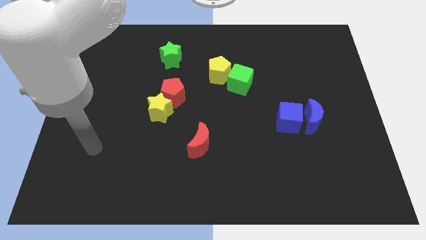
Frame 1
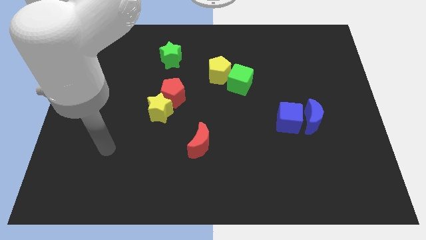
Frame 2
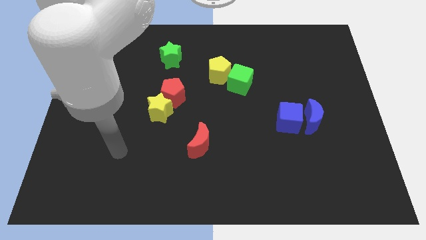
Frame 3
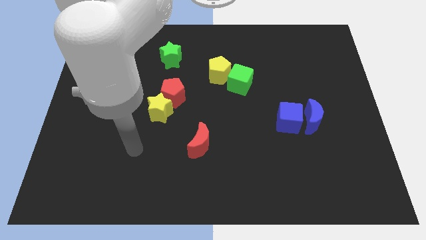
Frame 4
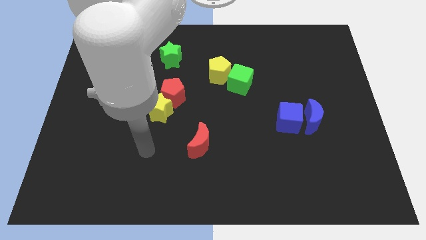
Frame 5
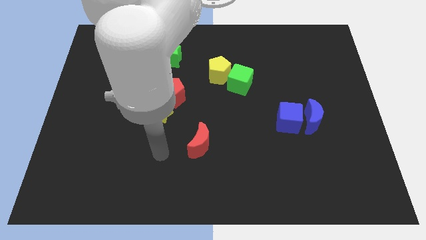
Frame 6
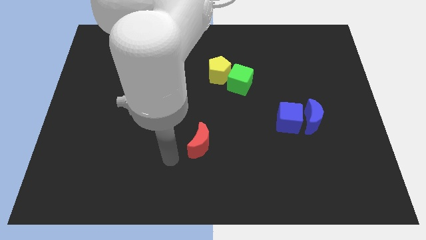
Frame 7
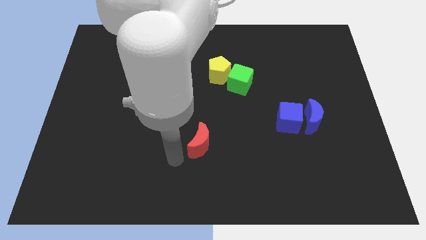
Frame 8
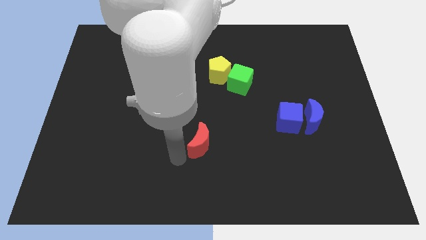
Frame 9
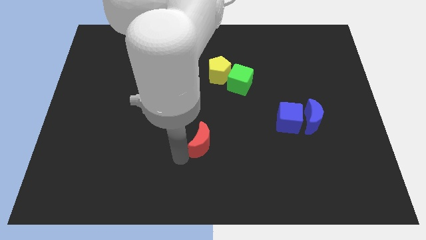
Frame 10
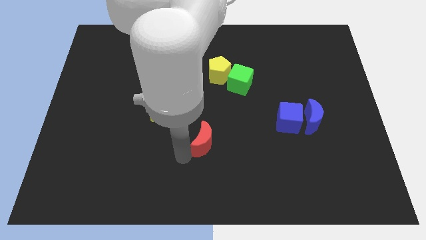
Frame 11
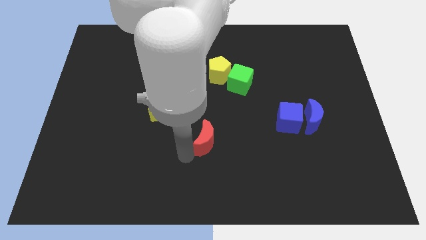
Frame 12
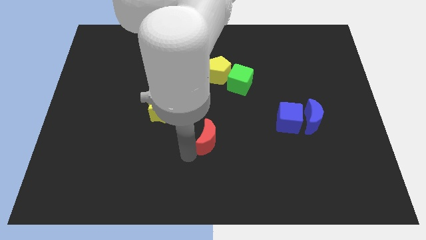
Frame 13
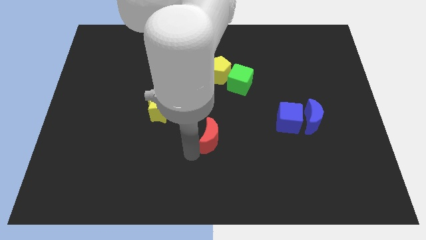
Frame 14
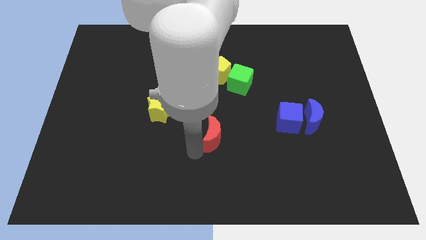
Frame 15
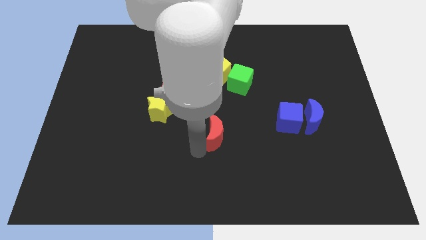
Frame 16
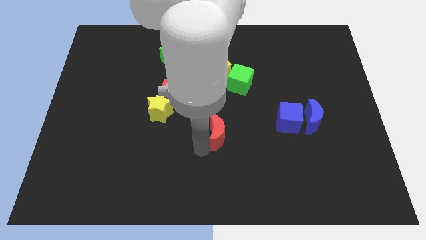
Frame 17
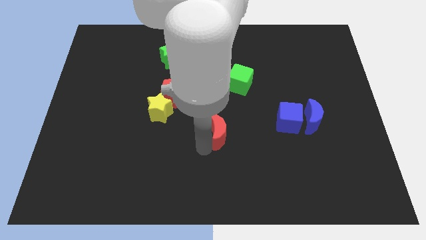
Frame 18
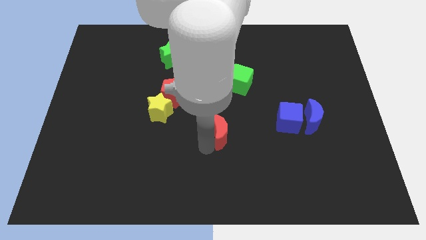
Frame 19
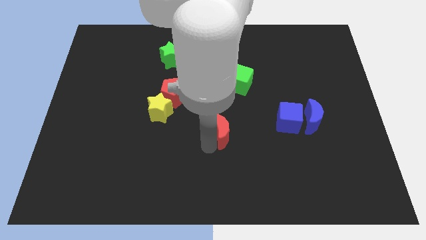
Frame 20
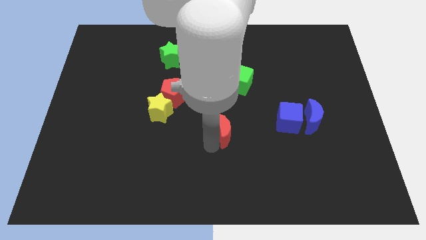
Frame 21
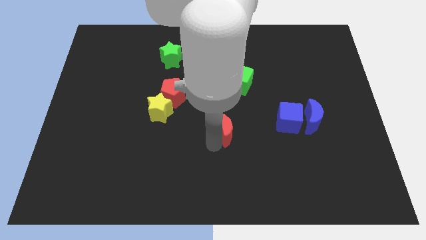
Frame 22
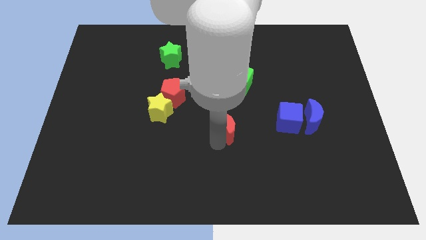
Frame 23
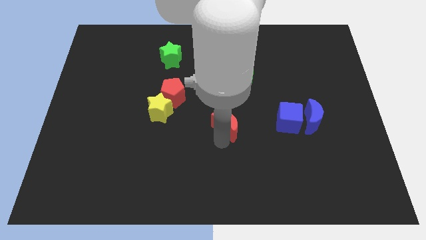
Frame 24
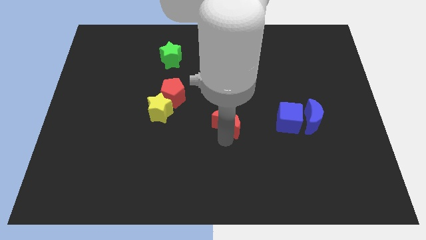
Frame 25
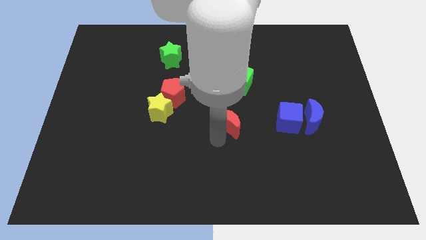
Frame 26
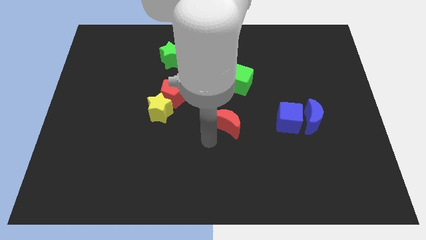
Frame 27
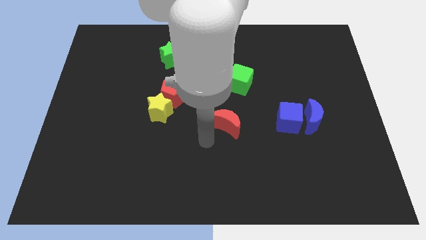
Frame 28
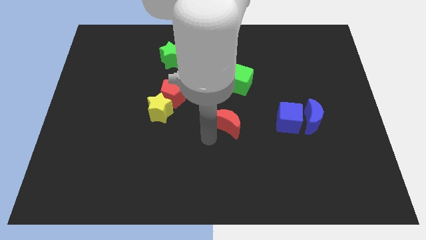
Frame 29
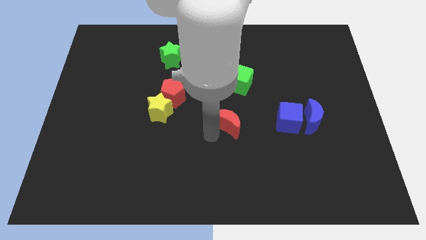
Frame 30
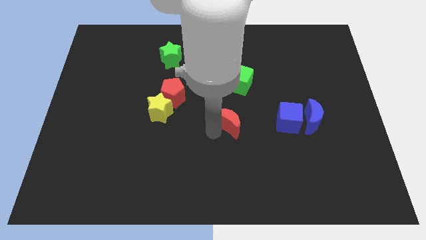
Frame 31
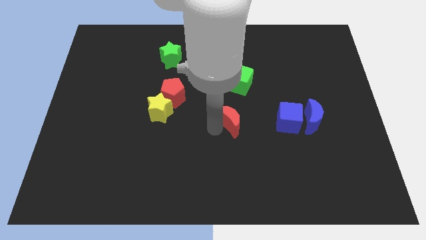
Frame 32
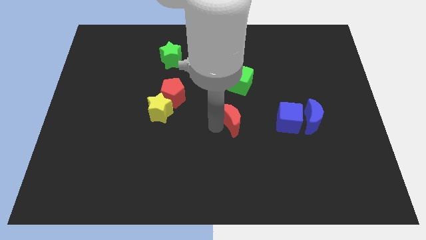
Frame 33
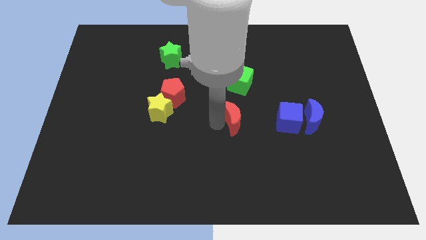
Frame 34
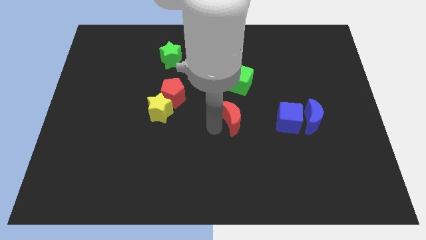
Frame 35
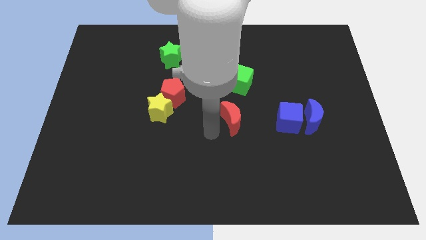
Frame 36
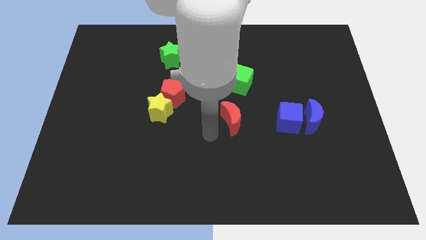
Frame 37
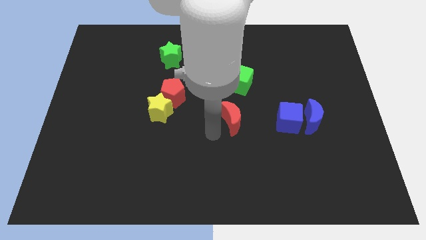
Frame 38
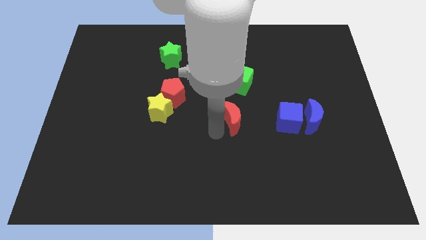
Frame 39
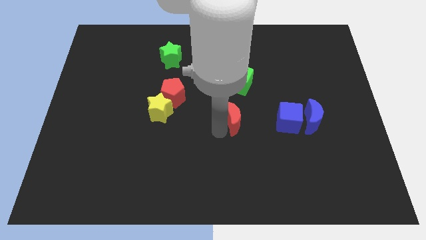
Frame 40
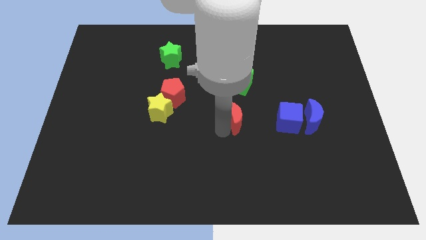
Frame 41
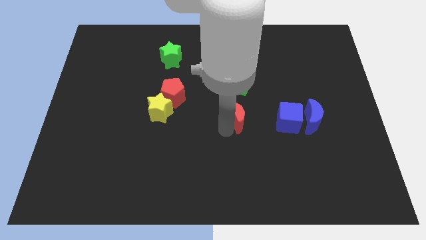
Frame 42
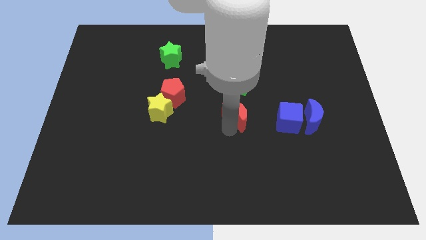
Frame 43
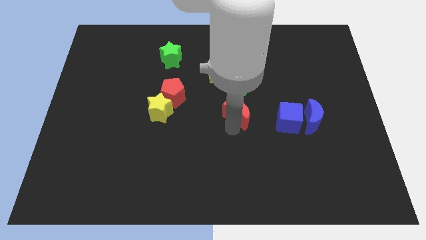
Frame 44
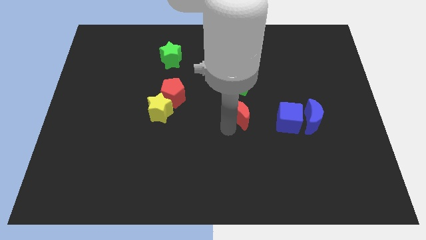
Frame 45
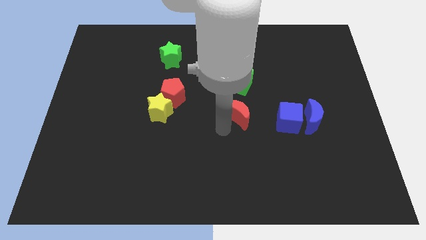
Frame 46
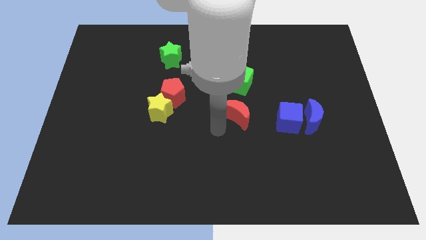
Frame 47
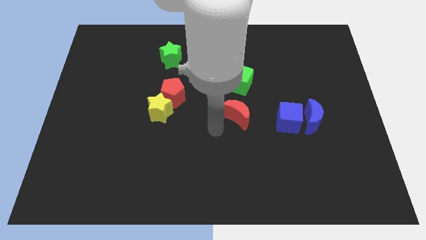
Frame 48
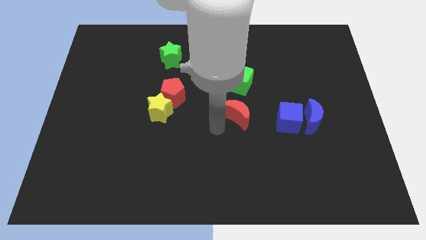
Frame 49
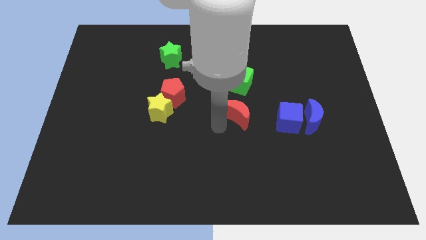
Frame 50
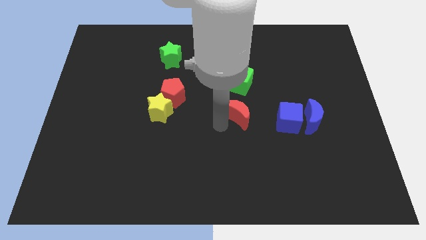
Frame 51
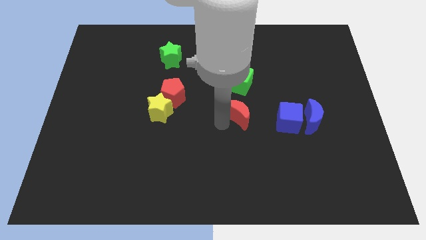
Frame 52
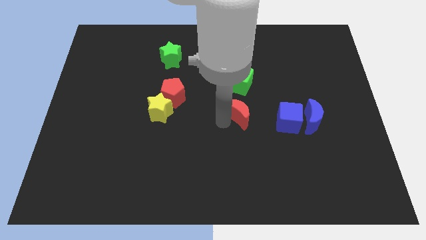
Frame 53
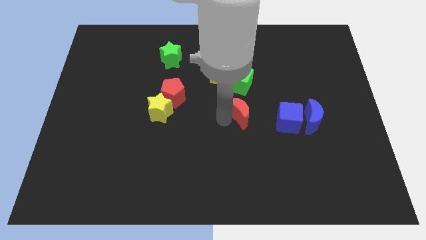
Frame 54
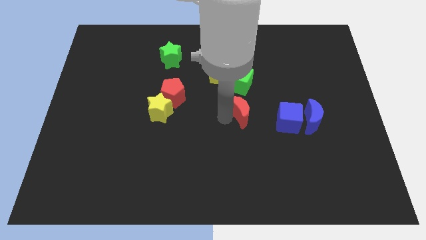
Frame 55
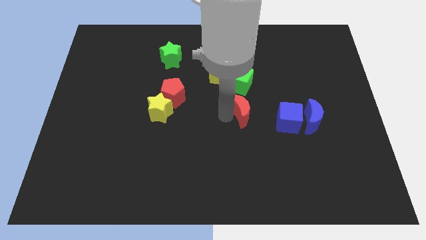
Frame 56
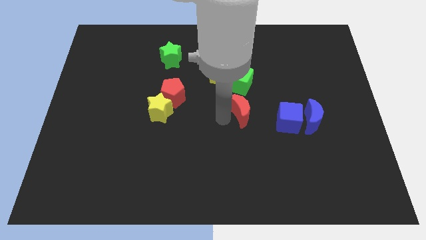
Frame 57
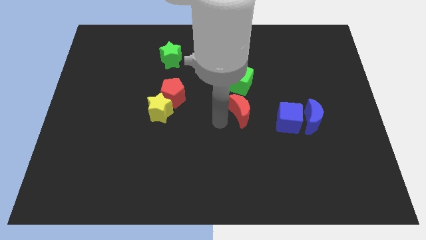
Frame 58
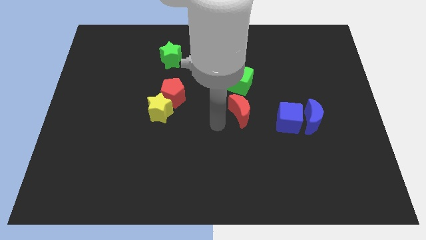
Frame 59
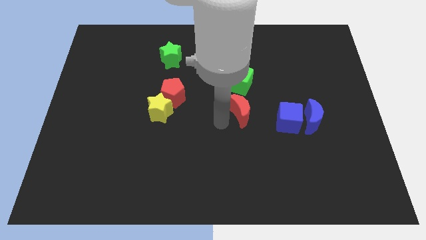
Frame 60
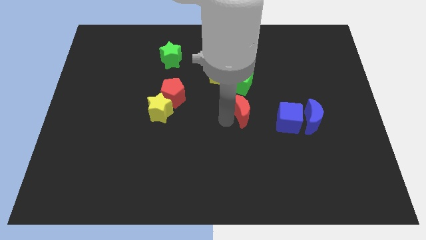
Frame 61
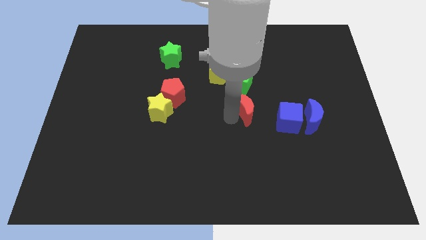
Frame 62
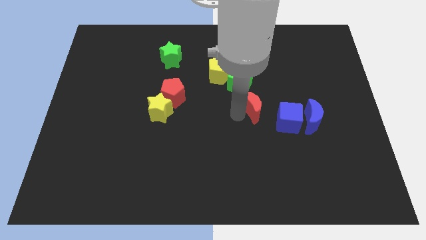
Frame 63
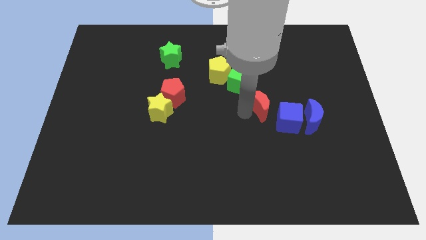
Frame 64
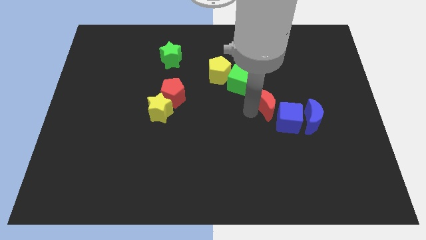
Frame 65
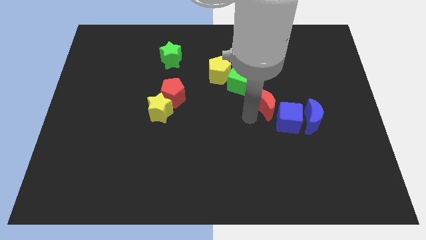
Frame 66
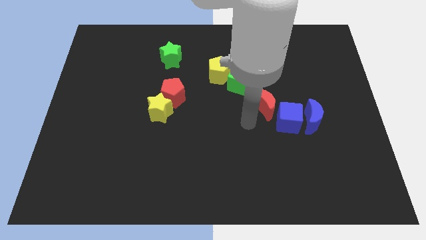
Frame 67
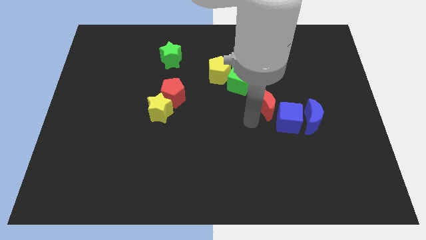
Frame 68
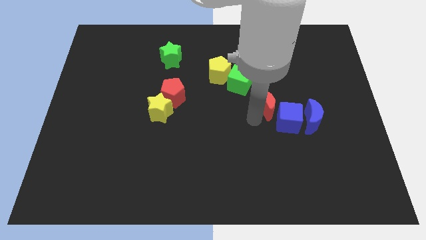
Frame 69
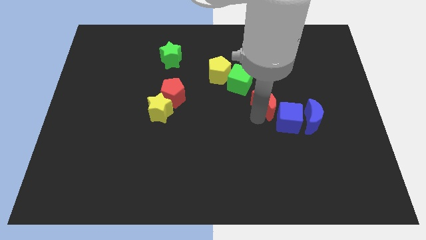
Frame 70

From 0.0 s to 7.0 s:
put the red moon to the top side of the blue cube
